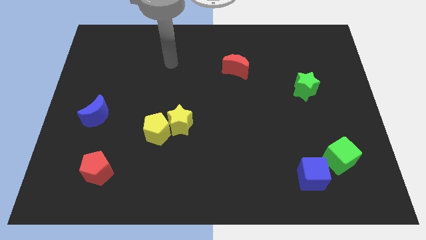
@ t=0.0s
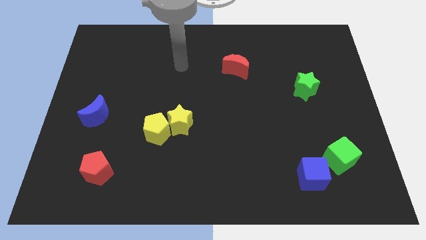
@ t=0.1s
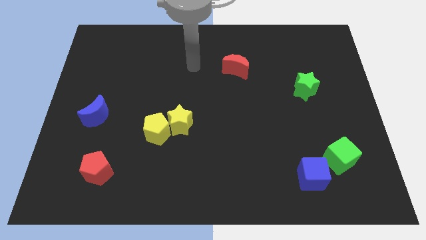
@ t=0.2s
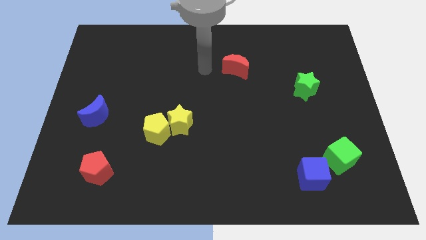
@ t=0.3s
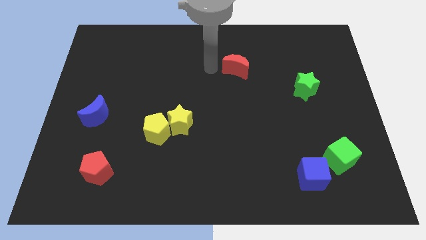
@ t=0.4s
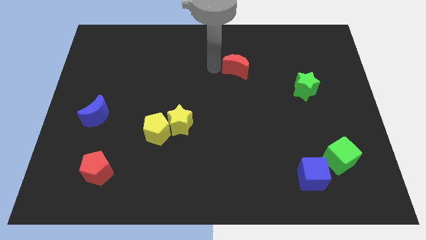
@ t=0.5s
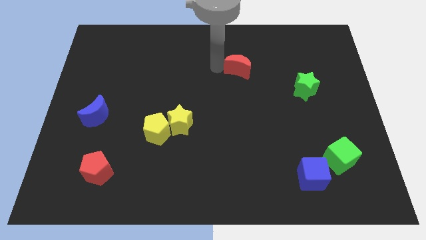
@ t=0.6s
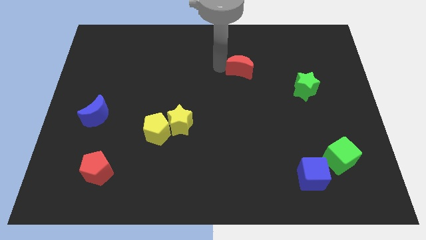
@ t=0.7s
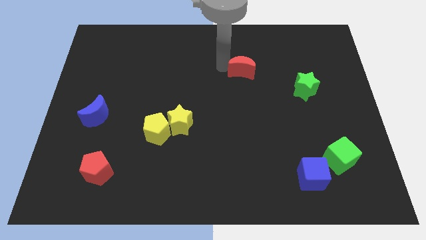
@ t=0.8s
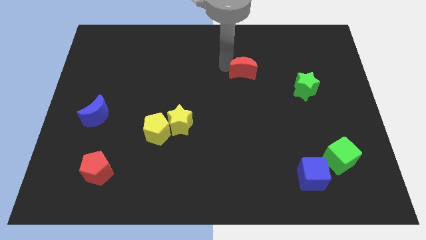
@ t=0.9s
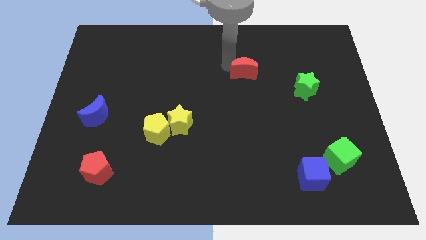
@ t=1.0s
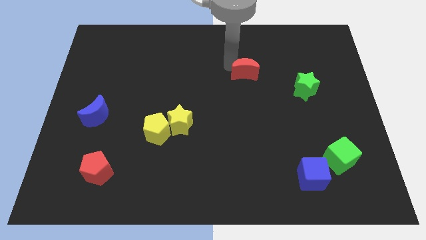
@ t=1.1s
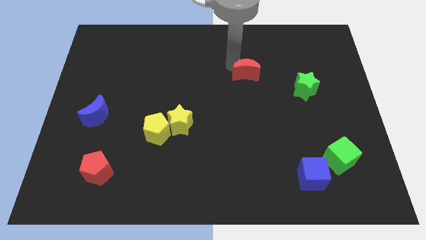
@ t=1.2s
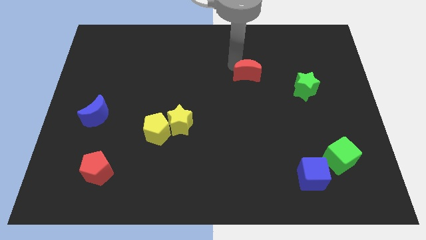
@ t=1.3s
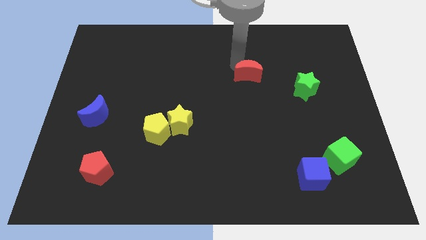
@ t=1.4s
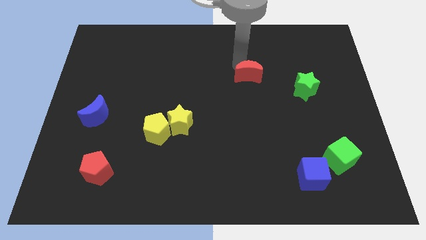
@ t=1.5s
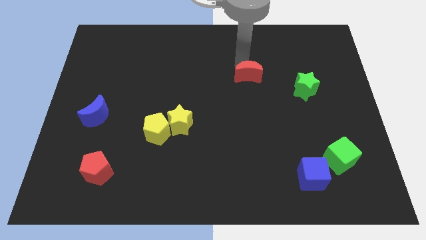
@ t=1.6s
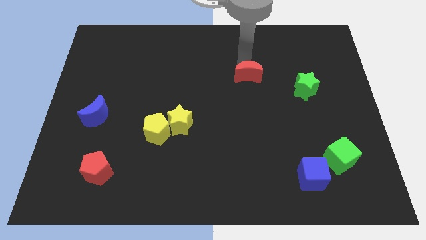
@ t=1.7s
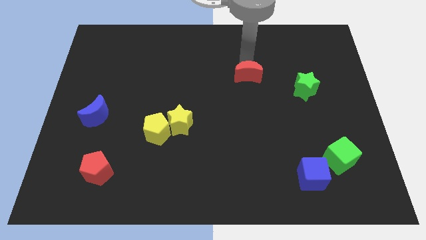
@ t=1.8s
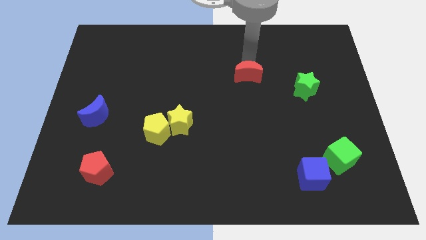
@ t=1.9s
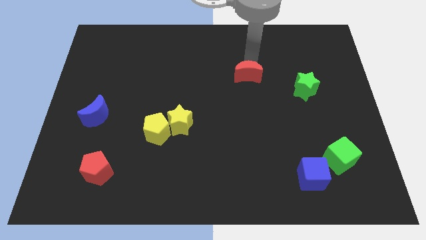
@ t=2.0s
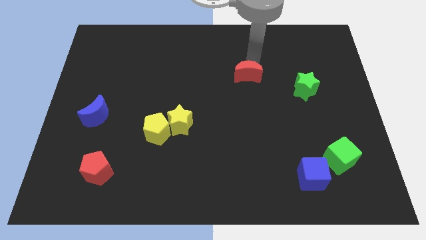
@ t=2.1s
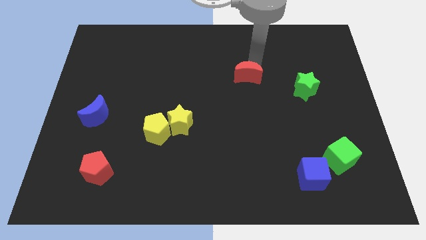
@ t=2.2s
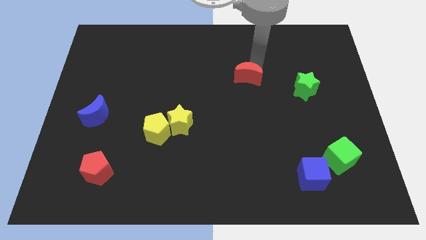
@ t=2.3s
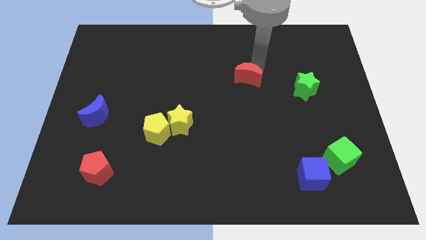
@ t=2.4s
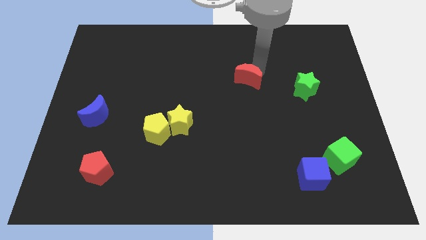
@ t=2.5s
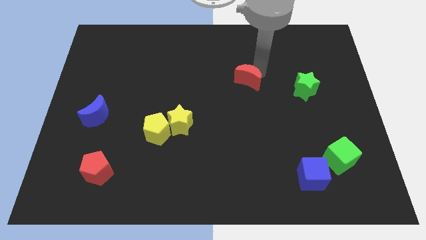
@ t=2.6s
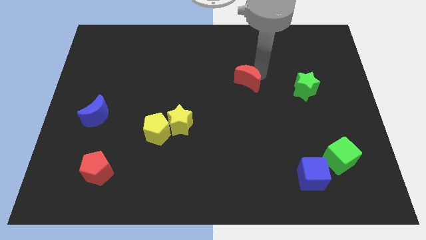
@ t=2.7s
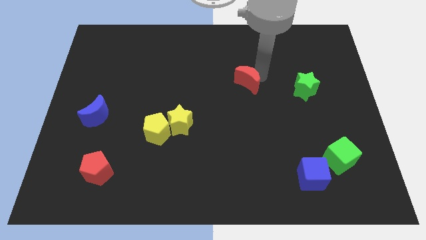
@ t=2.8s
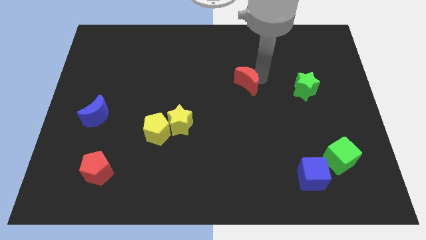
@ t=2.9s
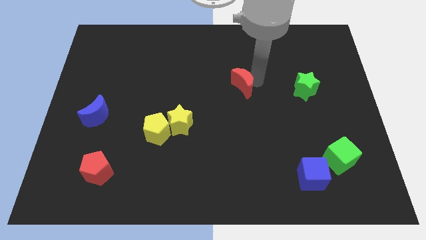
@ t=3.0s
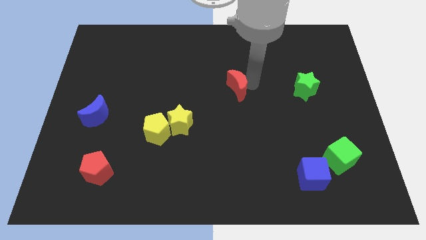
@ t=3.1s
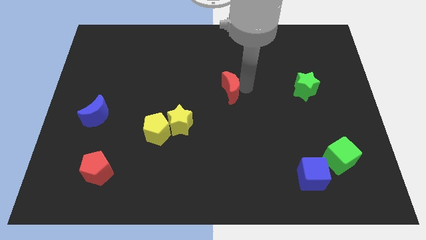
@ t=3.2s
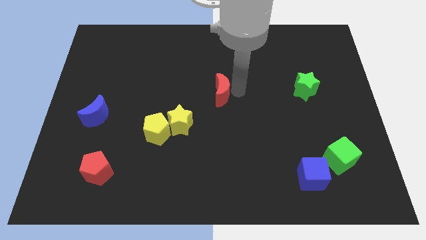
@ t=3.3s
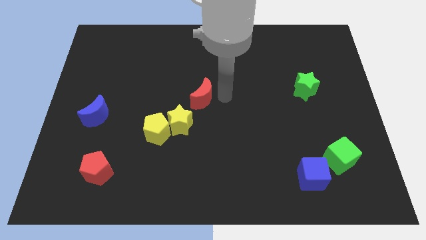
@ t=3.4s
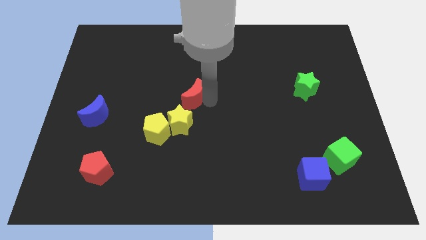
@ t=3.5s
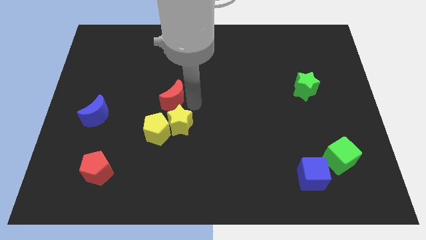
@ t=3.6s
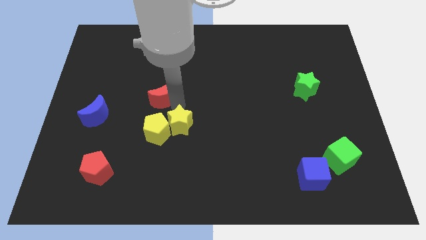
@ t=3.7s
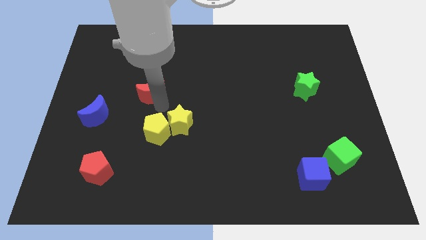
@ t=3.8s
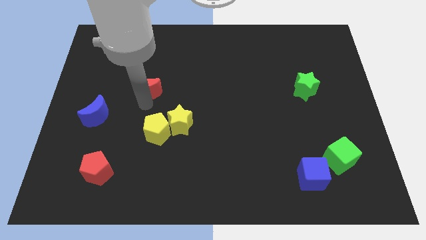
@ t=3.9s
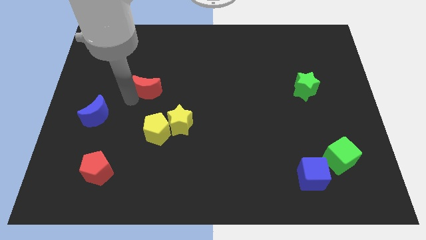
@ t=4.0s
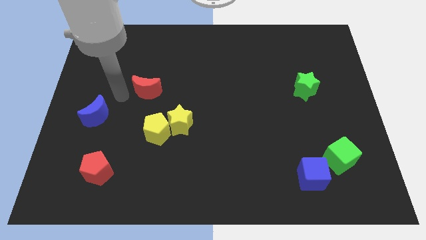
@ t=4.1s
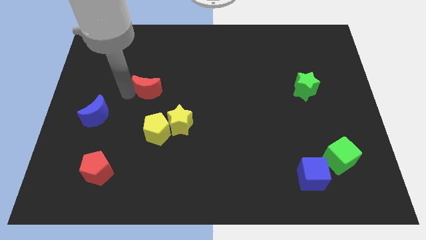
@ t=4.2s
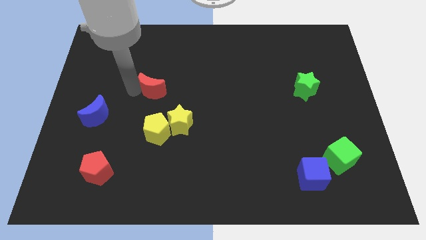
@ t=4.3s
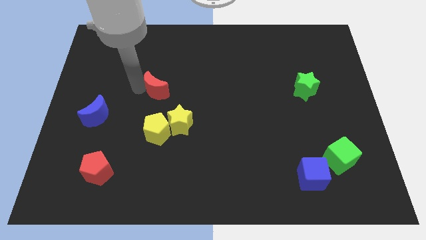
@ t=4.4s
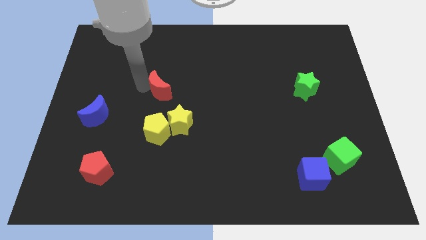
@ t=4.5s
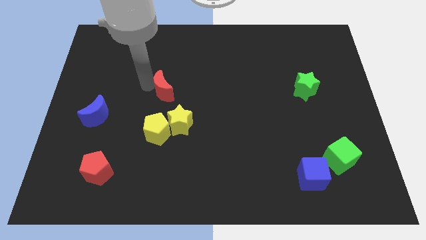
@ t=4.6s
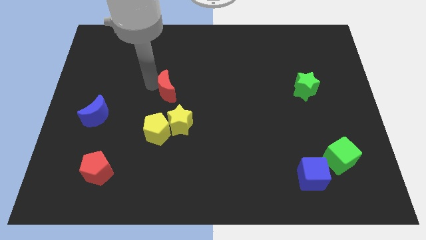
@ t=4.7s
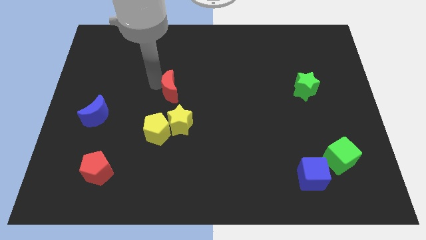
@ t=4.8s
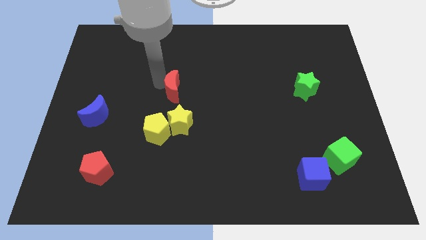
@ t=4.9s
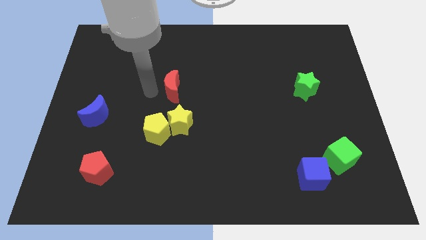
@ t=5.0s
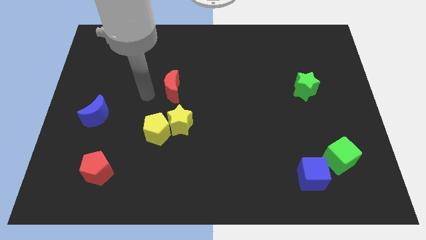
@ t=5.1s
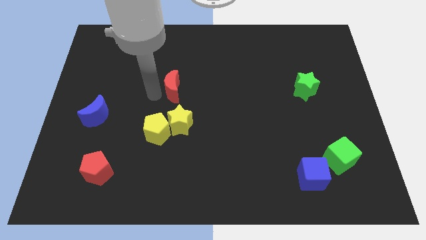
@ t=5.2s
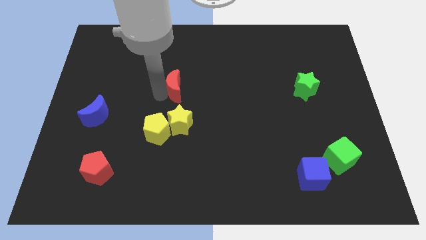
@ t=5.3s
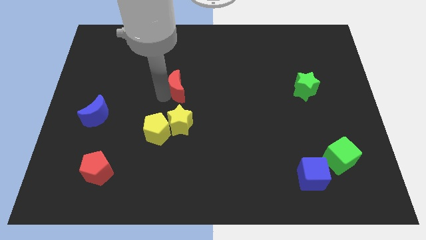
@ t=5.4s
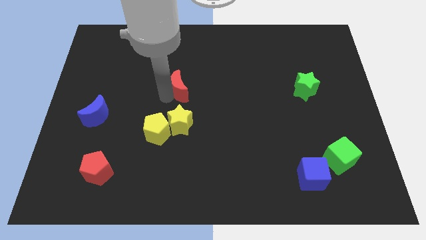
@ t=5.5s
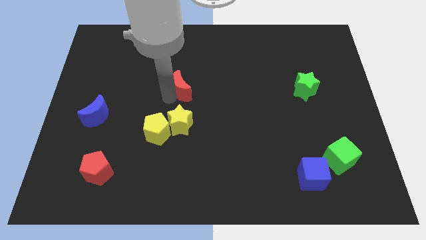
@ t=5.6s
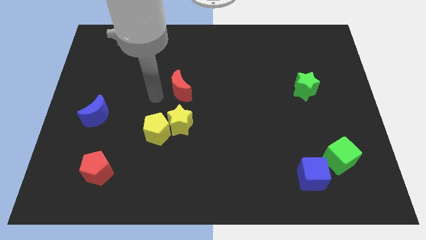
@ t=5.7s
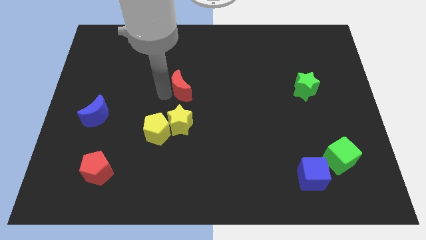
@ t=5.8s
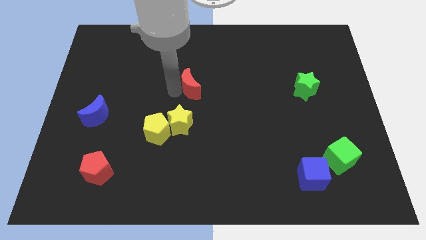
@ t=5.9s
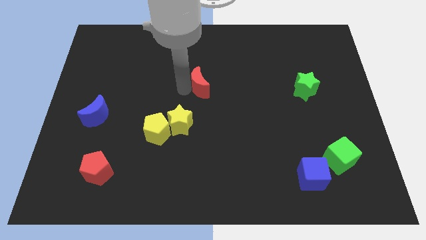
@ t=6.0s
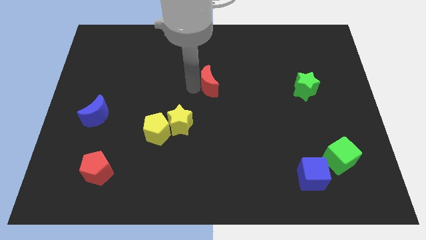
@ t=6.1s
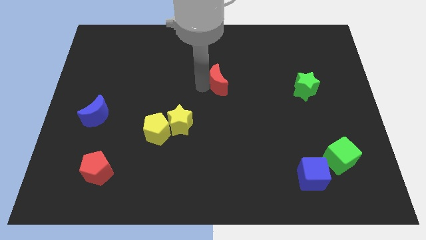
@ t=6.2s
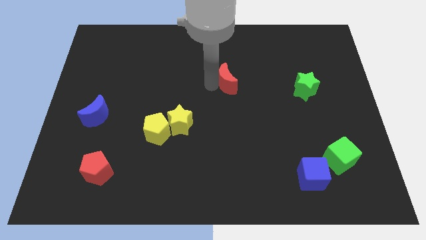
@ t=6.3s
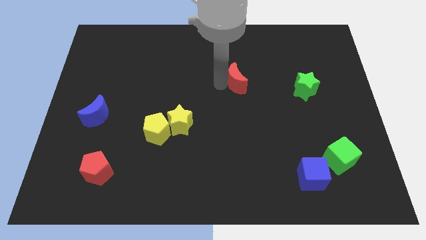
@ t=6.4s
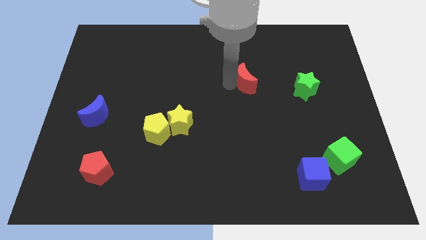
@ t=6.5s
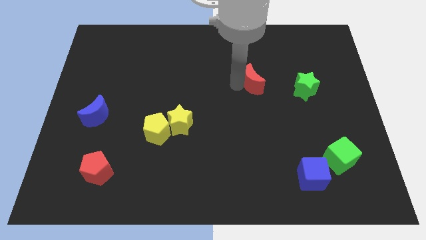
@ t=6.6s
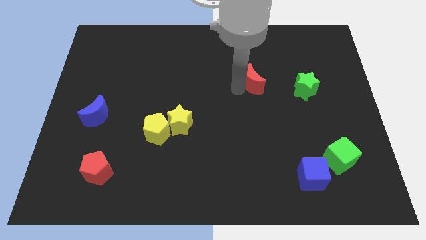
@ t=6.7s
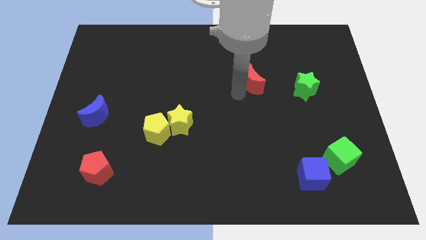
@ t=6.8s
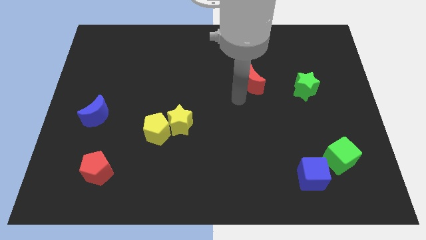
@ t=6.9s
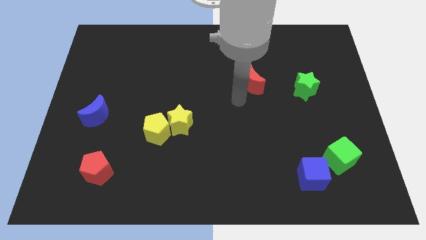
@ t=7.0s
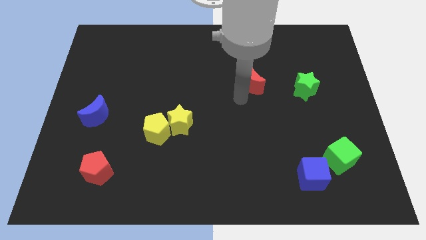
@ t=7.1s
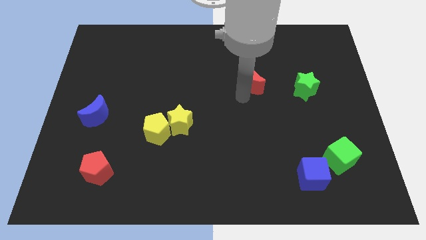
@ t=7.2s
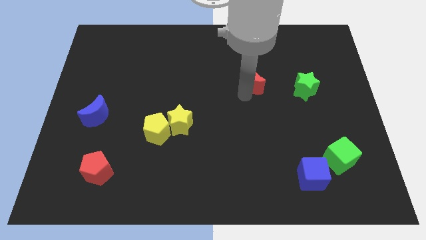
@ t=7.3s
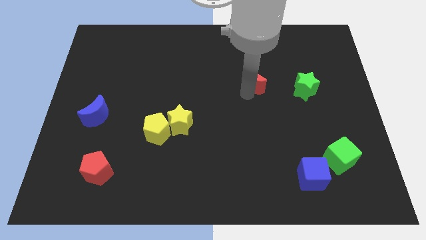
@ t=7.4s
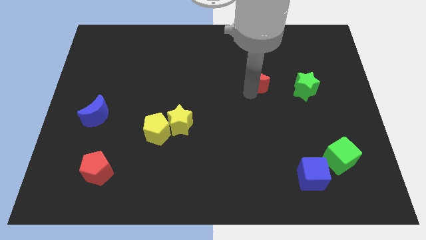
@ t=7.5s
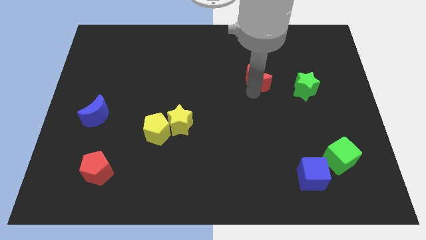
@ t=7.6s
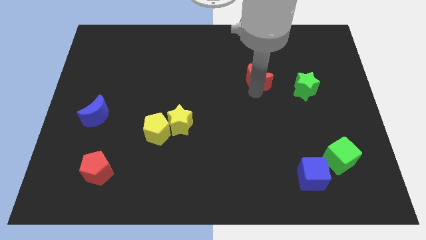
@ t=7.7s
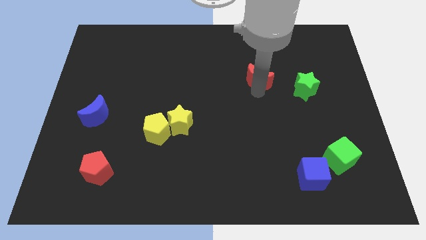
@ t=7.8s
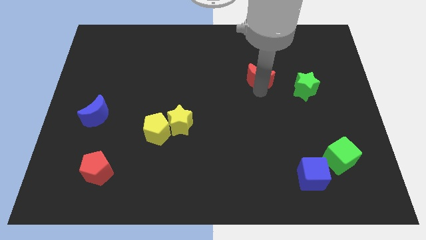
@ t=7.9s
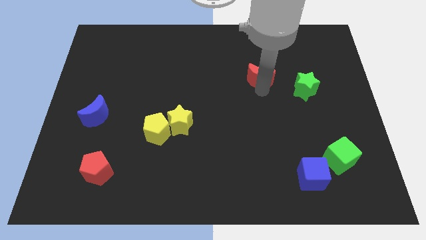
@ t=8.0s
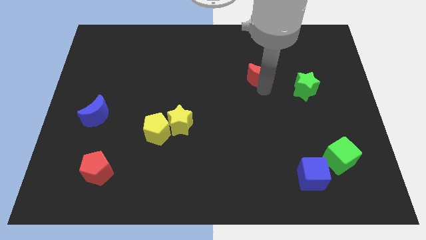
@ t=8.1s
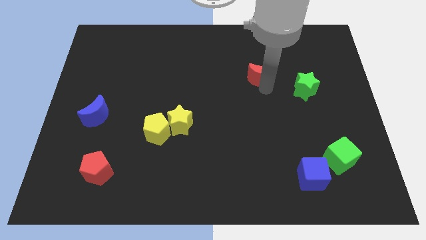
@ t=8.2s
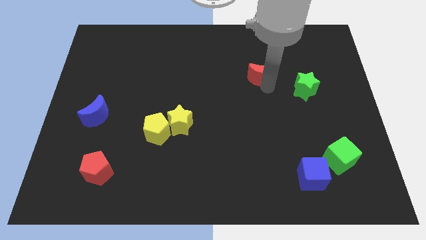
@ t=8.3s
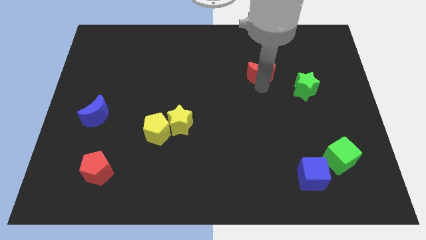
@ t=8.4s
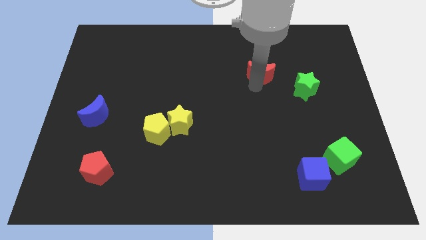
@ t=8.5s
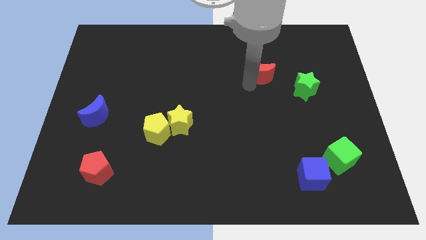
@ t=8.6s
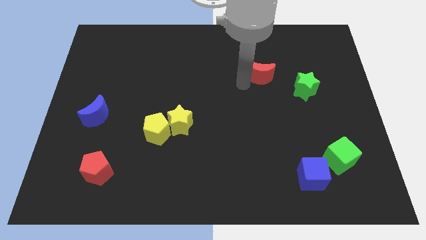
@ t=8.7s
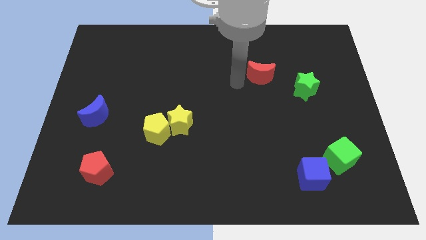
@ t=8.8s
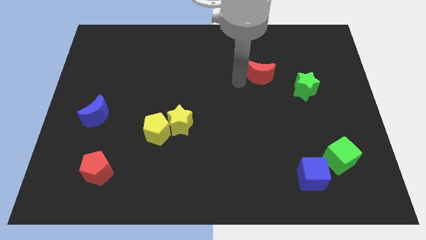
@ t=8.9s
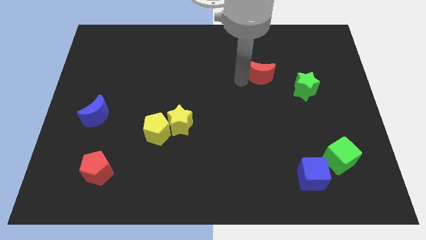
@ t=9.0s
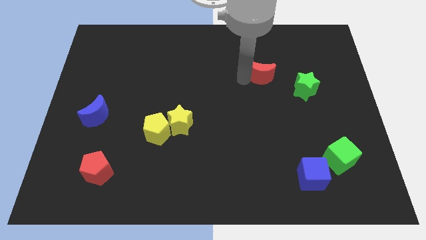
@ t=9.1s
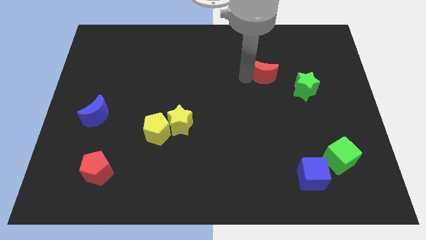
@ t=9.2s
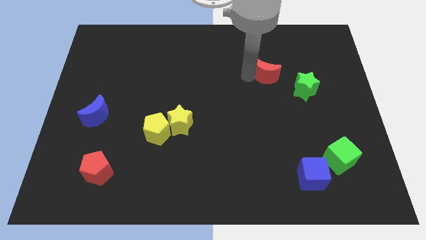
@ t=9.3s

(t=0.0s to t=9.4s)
slide the red moon a little to the right
